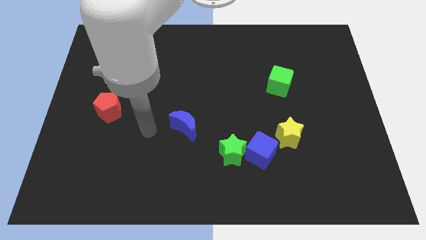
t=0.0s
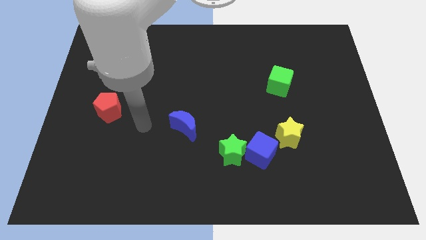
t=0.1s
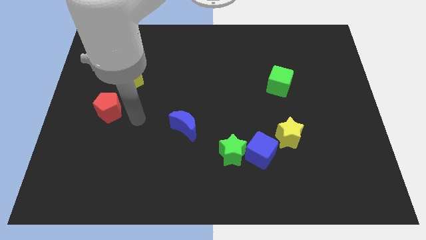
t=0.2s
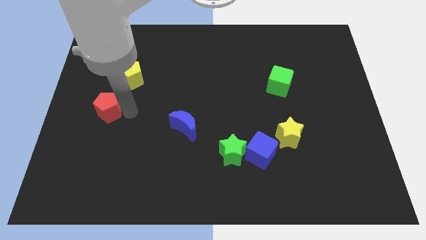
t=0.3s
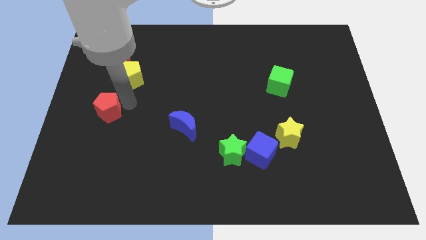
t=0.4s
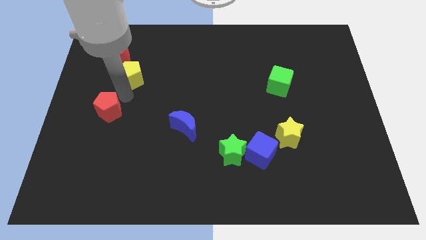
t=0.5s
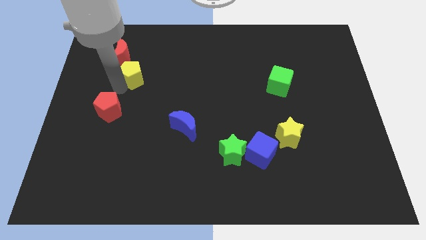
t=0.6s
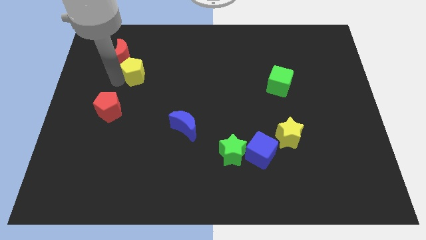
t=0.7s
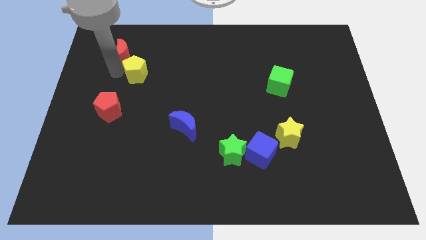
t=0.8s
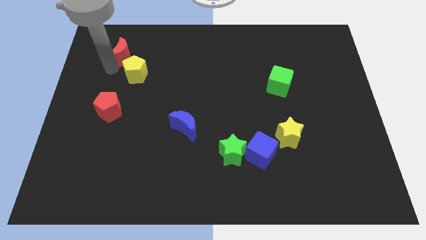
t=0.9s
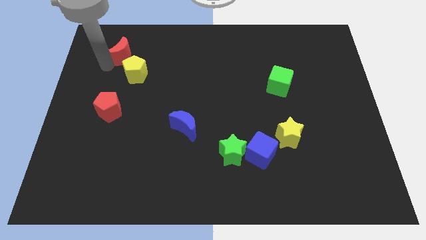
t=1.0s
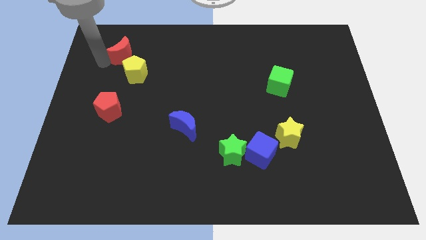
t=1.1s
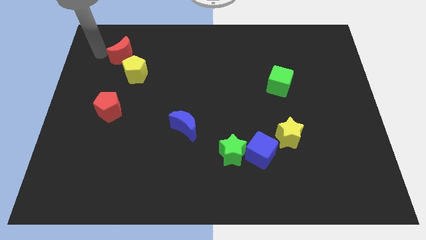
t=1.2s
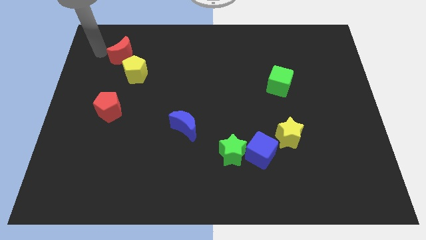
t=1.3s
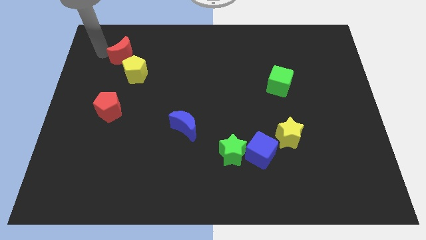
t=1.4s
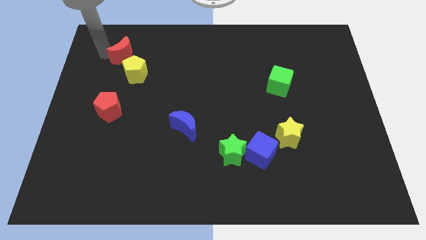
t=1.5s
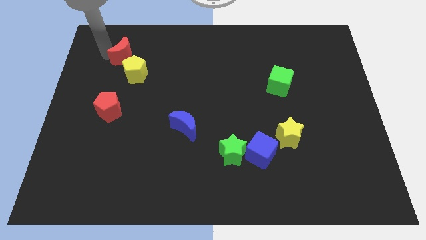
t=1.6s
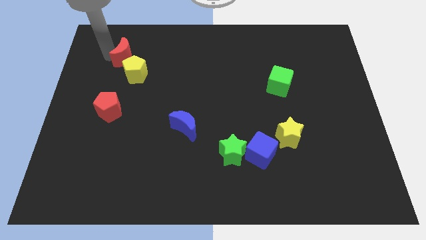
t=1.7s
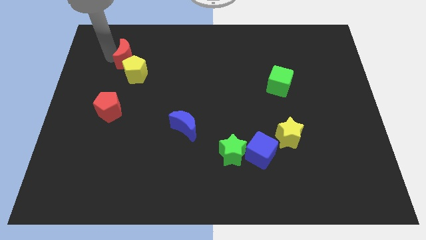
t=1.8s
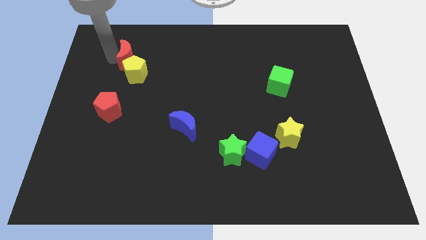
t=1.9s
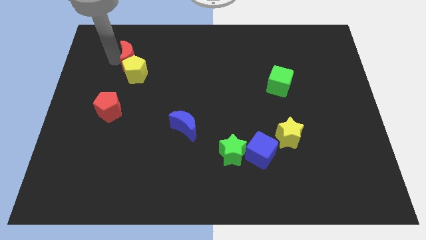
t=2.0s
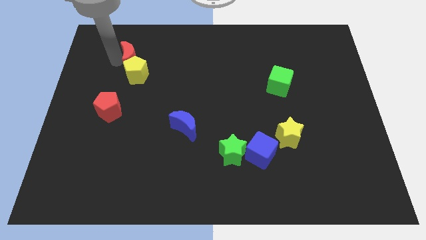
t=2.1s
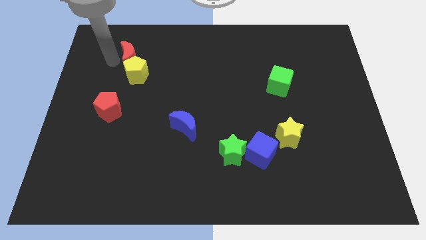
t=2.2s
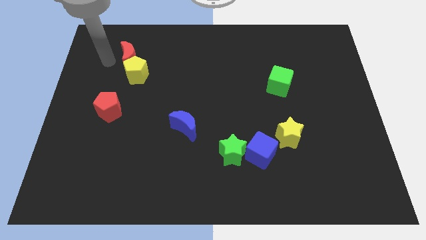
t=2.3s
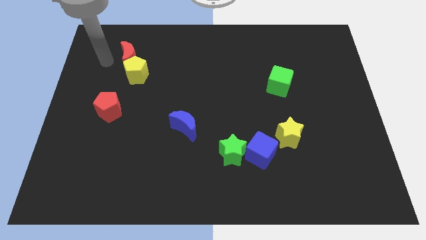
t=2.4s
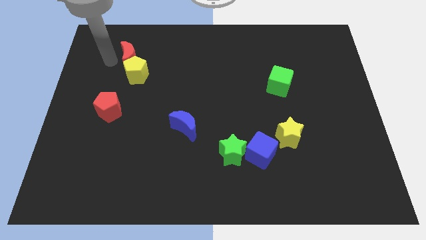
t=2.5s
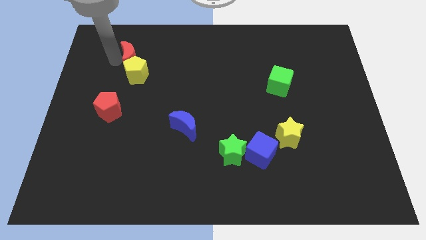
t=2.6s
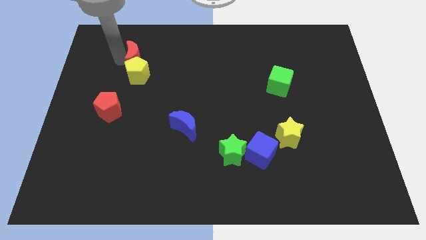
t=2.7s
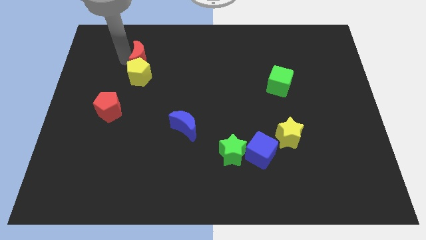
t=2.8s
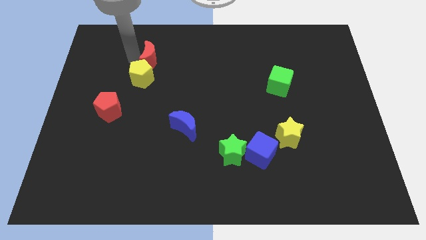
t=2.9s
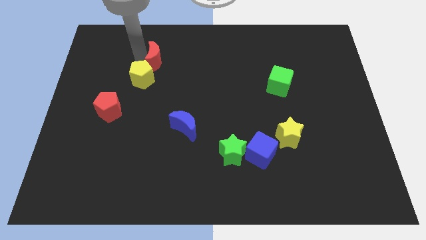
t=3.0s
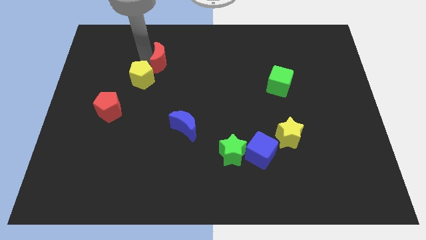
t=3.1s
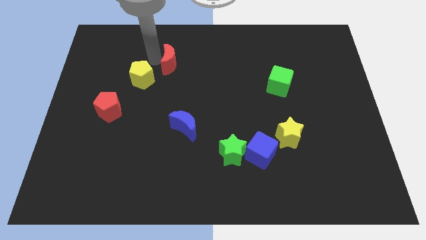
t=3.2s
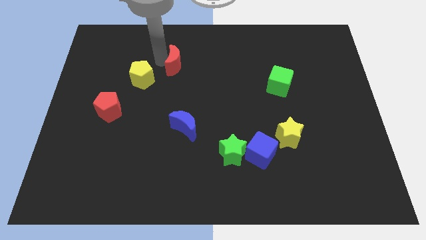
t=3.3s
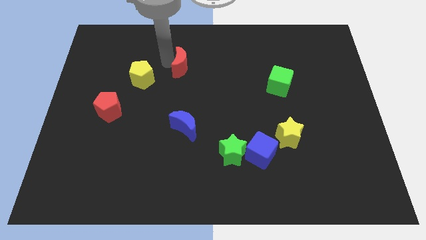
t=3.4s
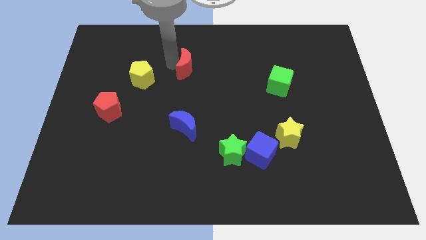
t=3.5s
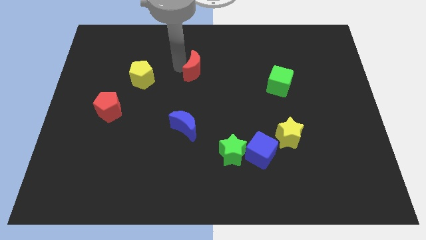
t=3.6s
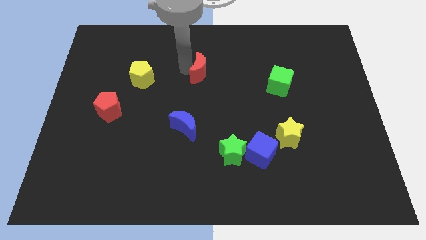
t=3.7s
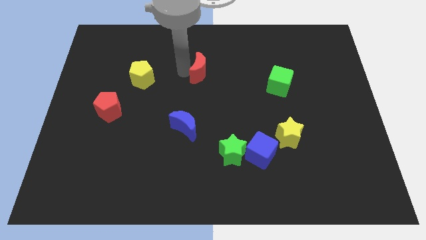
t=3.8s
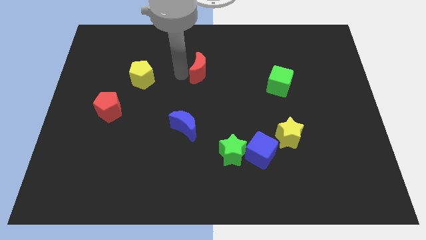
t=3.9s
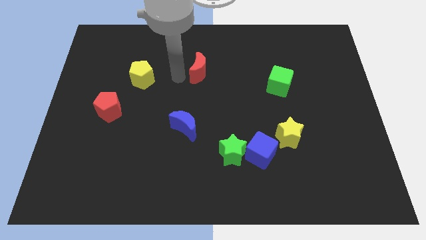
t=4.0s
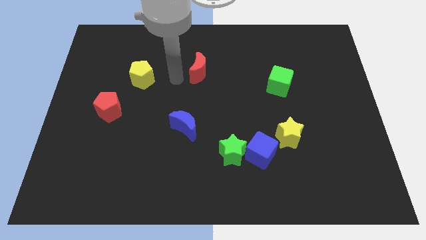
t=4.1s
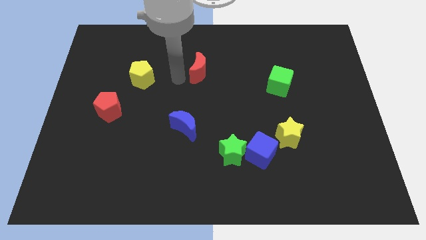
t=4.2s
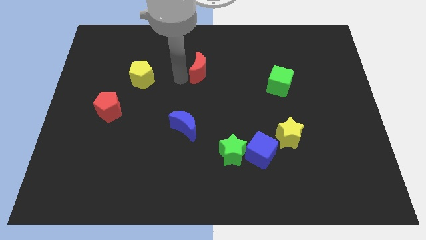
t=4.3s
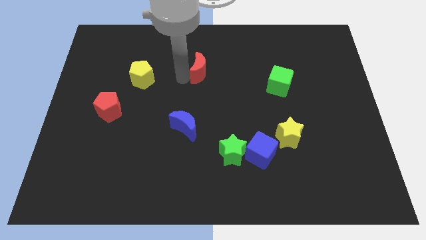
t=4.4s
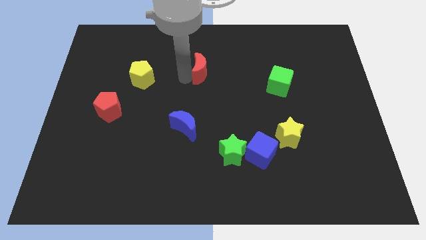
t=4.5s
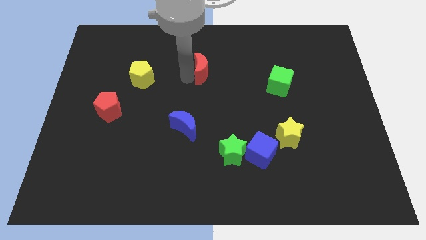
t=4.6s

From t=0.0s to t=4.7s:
slide the red moon right

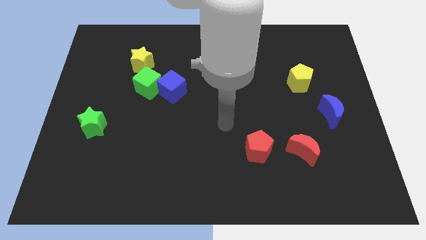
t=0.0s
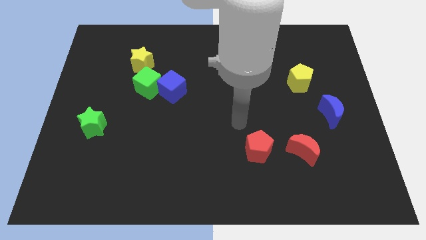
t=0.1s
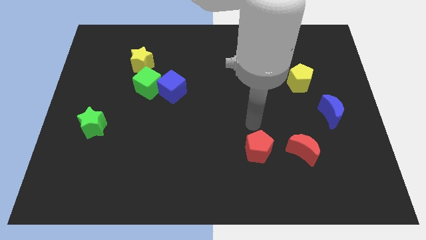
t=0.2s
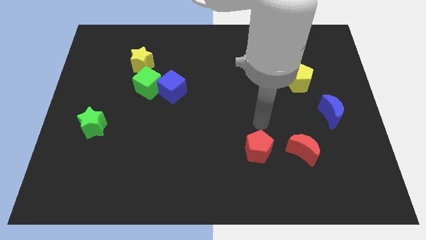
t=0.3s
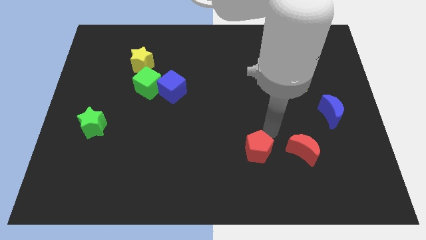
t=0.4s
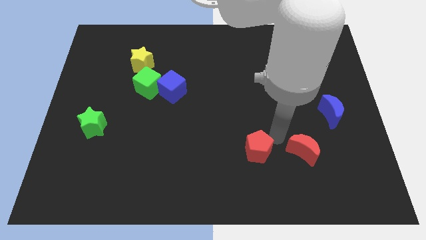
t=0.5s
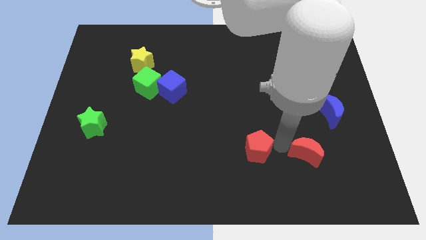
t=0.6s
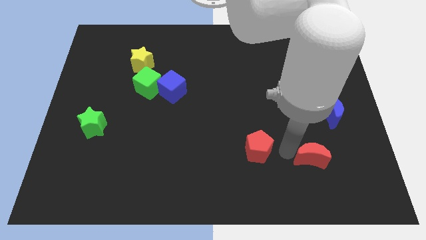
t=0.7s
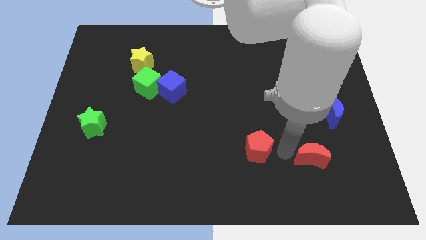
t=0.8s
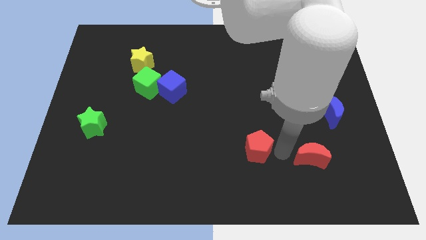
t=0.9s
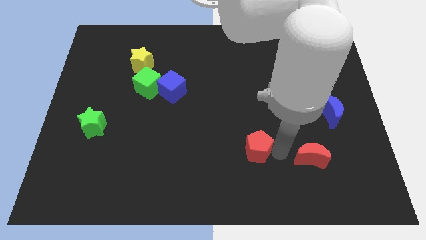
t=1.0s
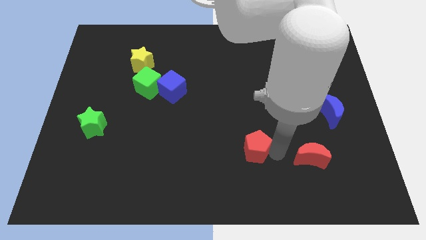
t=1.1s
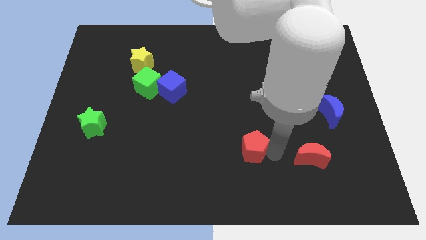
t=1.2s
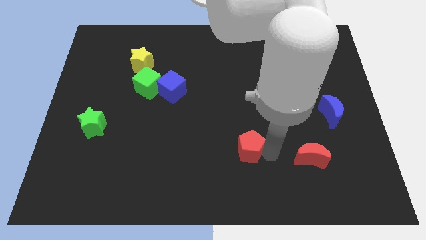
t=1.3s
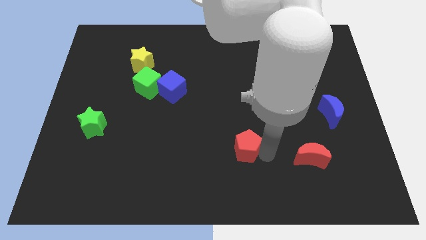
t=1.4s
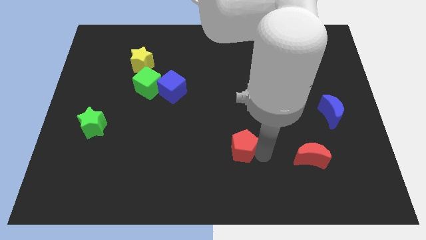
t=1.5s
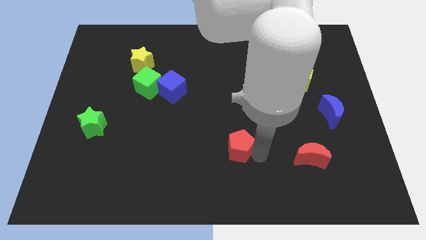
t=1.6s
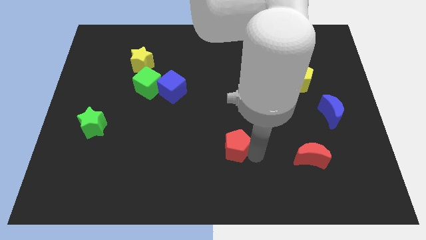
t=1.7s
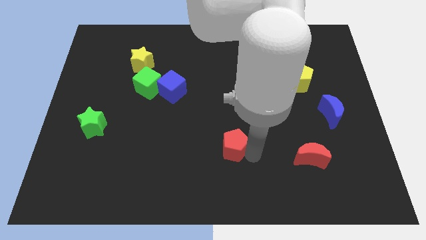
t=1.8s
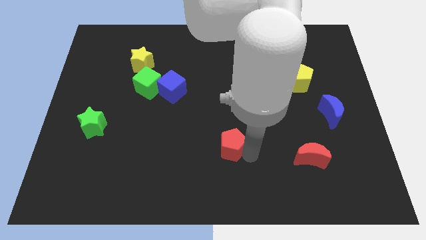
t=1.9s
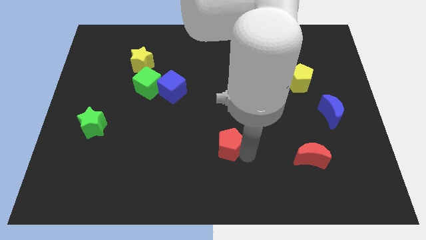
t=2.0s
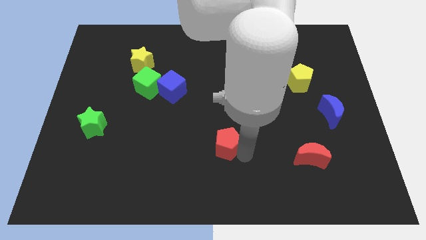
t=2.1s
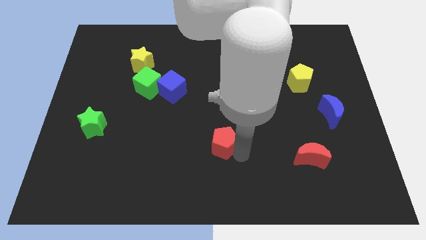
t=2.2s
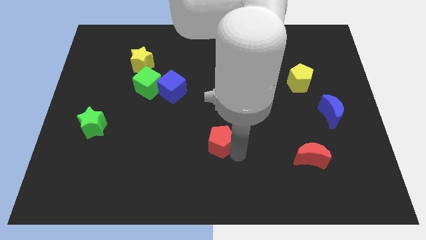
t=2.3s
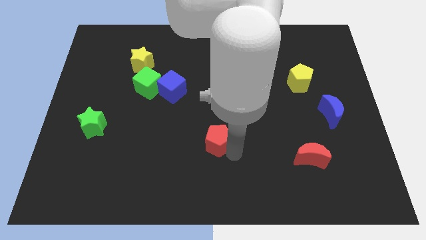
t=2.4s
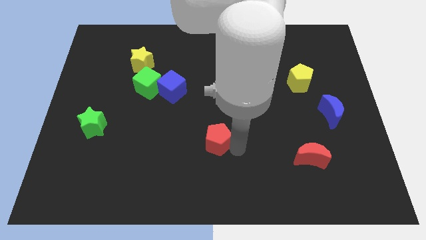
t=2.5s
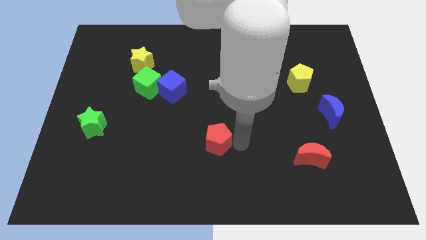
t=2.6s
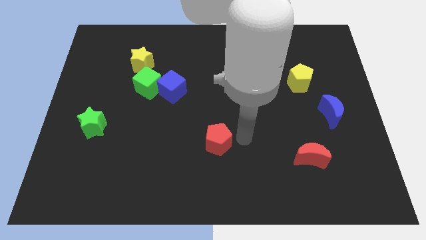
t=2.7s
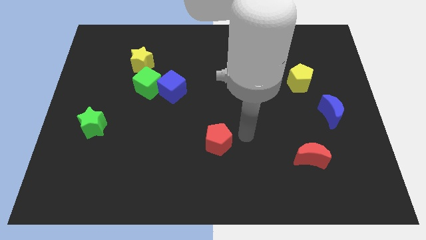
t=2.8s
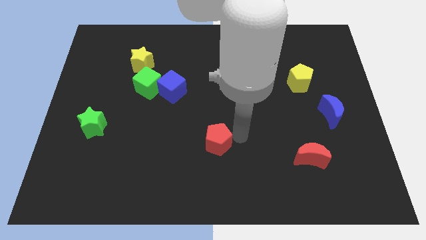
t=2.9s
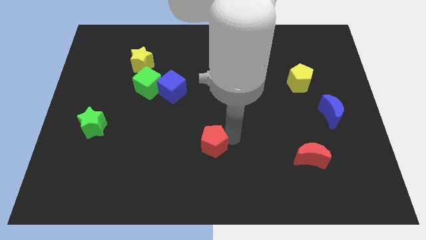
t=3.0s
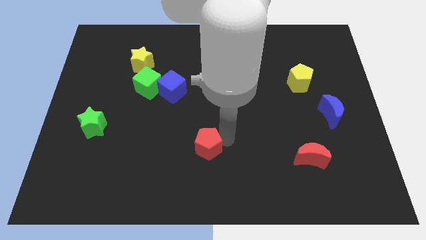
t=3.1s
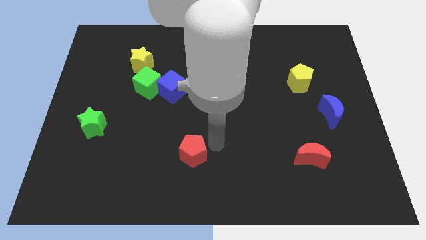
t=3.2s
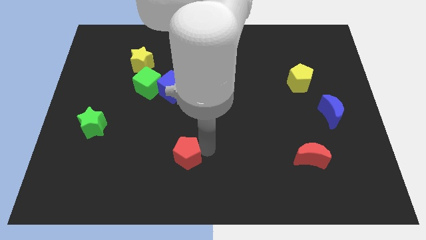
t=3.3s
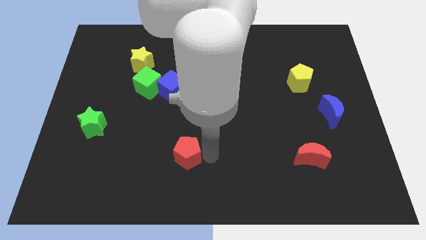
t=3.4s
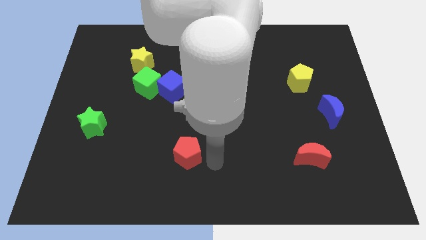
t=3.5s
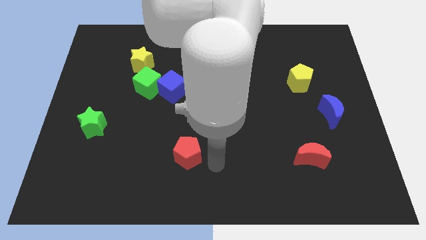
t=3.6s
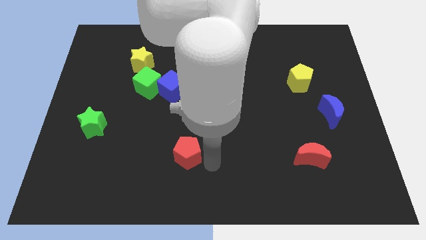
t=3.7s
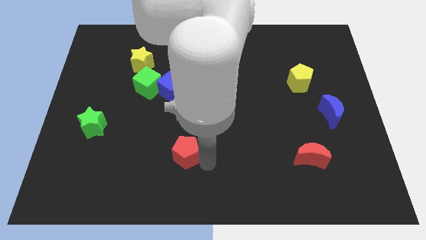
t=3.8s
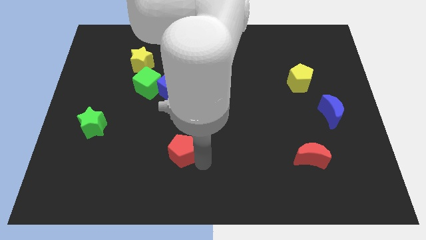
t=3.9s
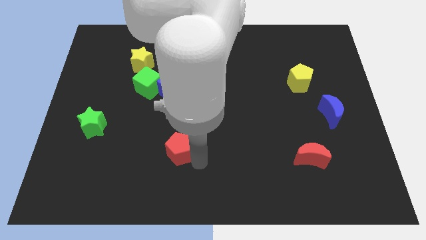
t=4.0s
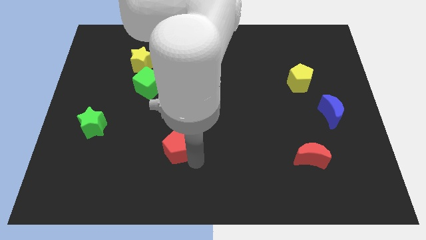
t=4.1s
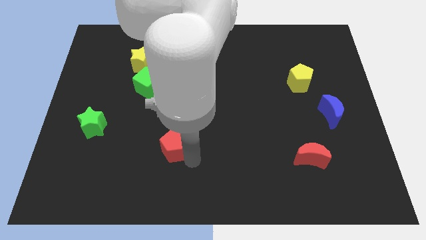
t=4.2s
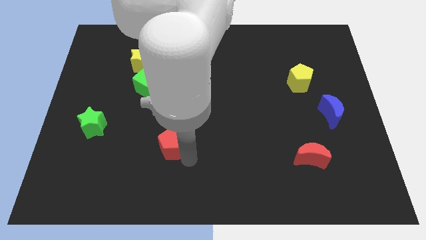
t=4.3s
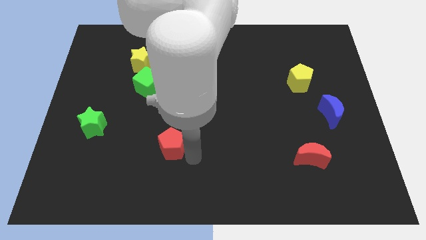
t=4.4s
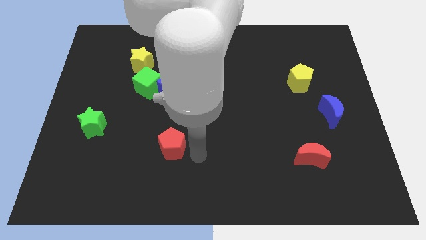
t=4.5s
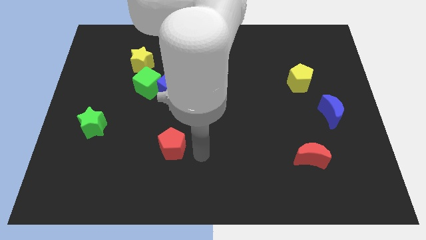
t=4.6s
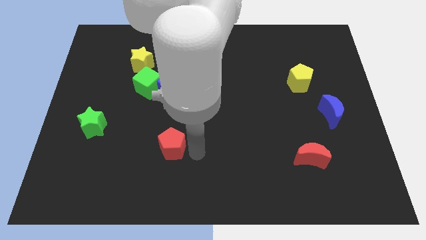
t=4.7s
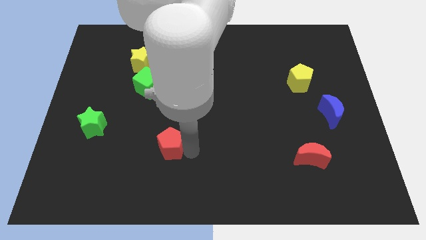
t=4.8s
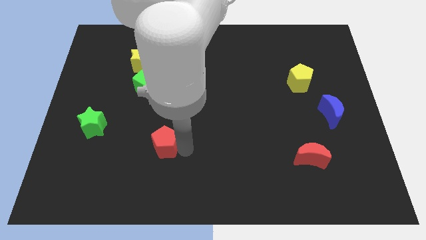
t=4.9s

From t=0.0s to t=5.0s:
slide the red pentagon left
